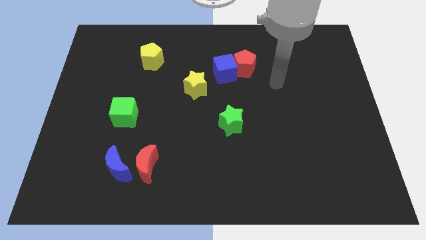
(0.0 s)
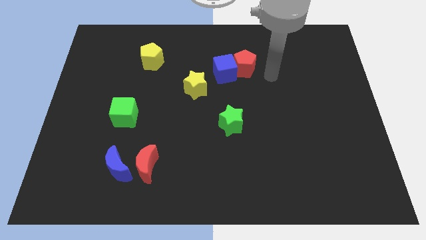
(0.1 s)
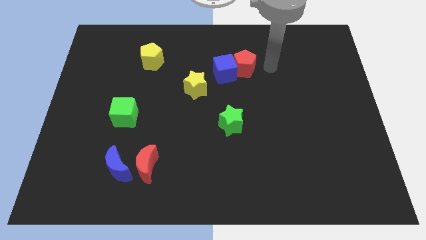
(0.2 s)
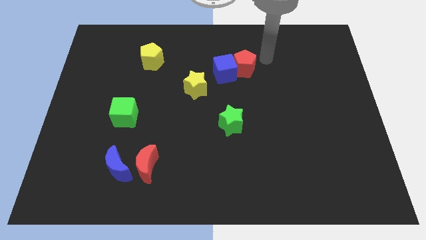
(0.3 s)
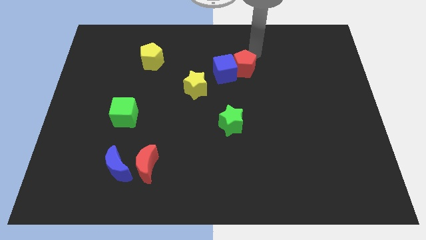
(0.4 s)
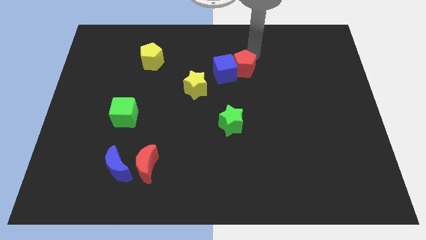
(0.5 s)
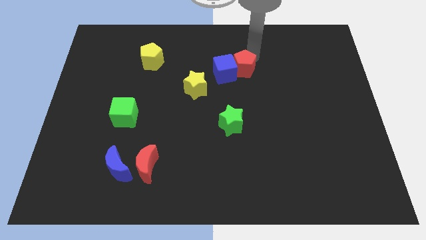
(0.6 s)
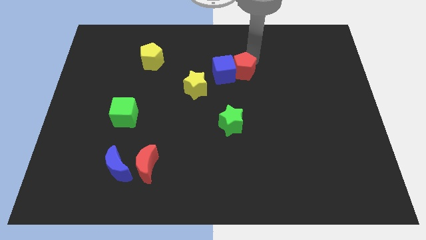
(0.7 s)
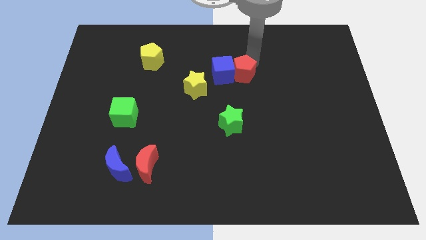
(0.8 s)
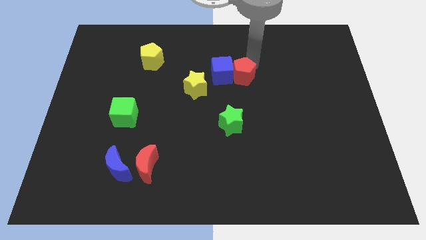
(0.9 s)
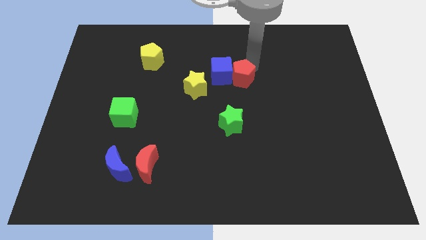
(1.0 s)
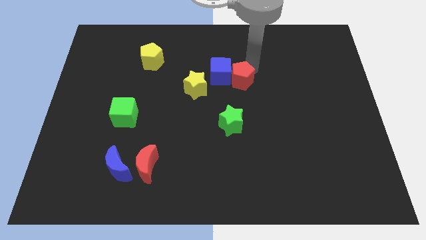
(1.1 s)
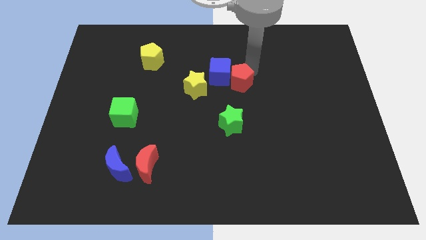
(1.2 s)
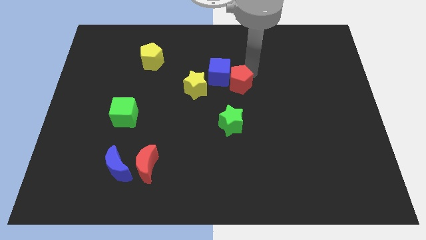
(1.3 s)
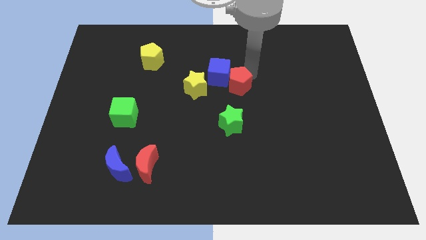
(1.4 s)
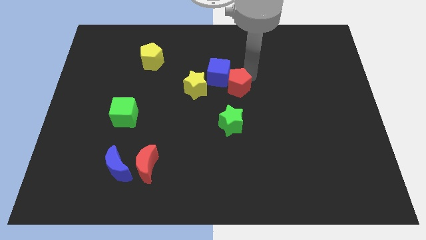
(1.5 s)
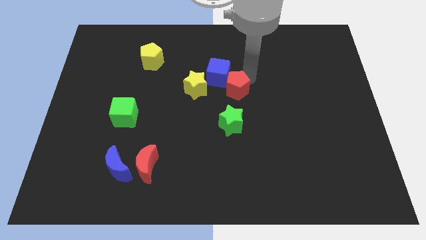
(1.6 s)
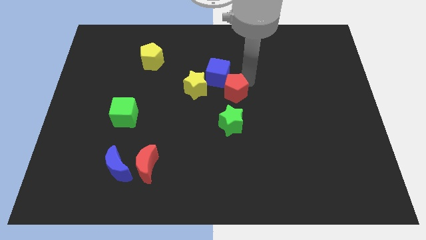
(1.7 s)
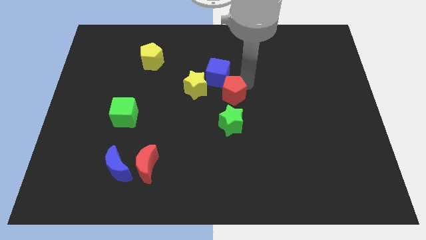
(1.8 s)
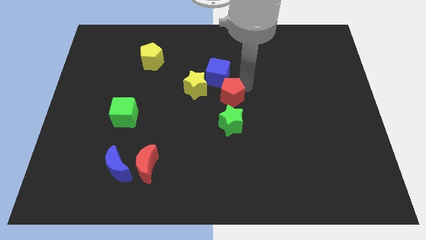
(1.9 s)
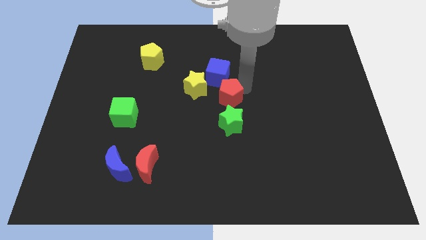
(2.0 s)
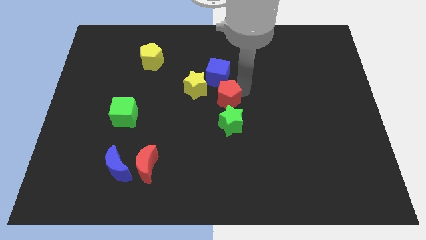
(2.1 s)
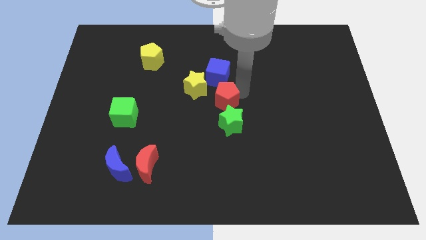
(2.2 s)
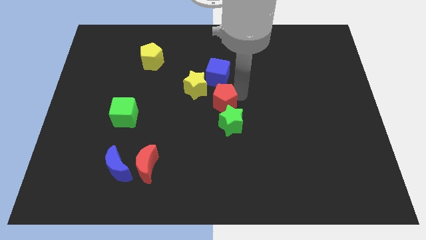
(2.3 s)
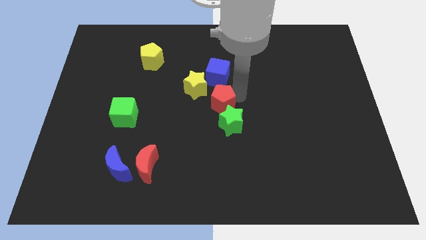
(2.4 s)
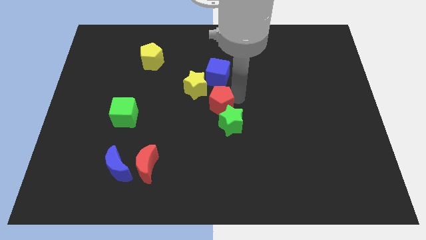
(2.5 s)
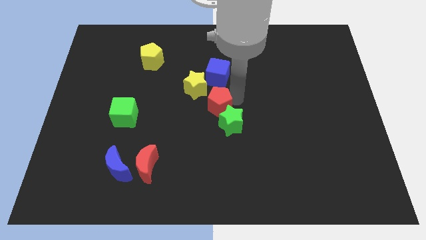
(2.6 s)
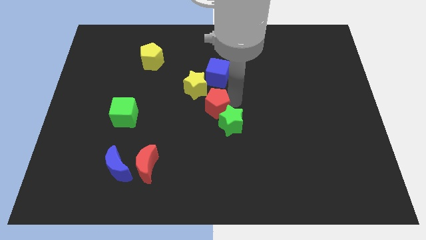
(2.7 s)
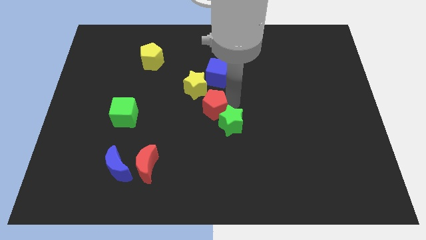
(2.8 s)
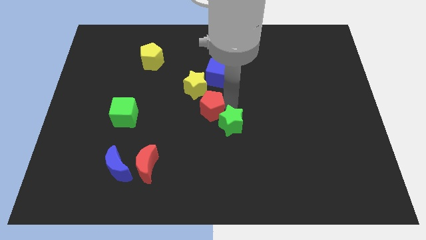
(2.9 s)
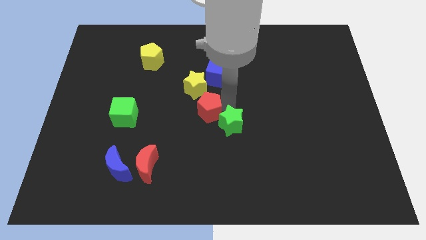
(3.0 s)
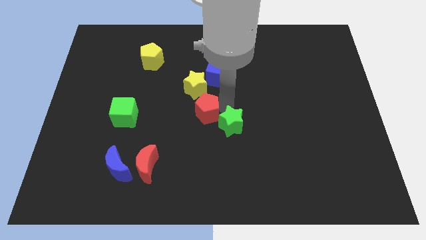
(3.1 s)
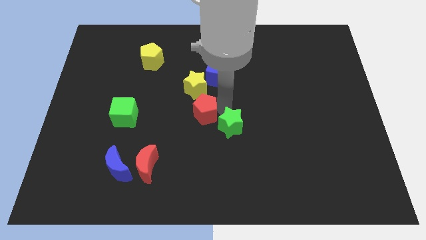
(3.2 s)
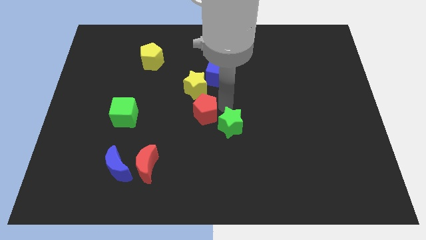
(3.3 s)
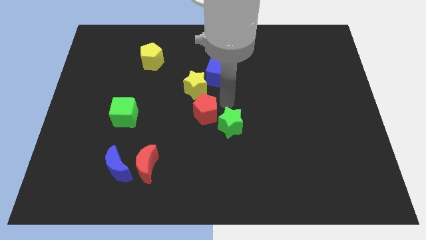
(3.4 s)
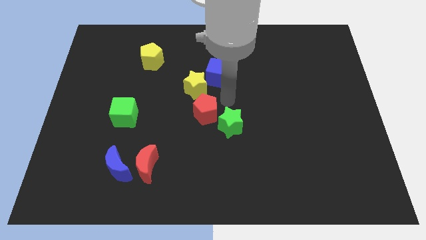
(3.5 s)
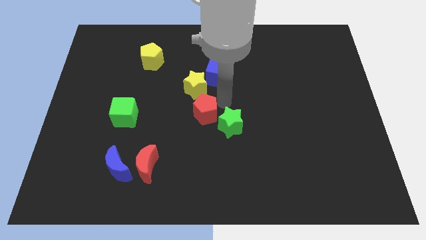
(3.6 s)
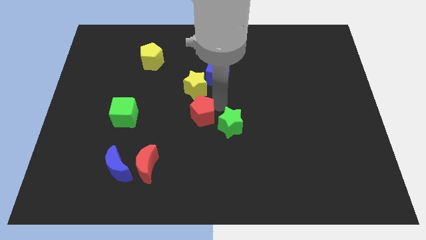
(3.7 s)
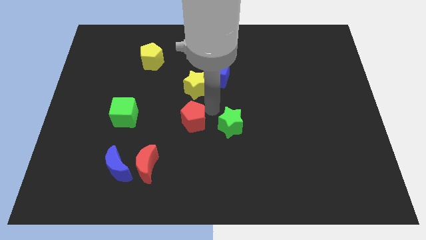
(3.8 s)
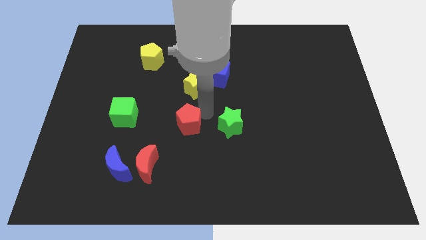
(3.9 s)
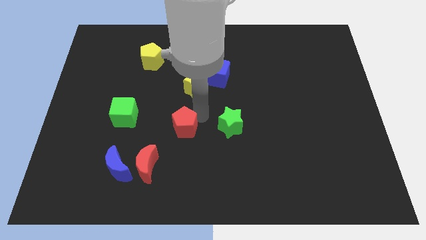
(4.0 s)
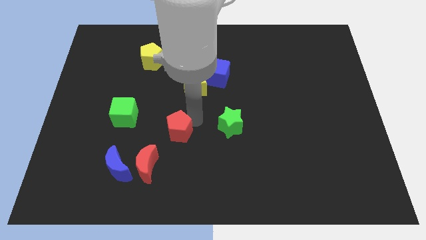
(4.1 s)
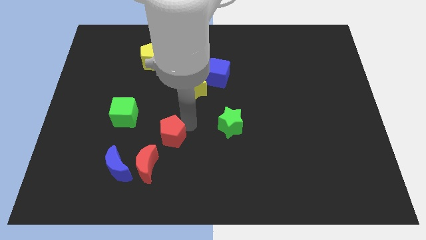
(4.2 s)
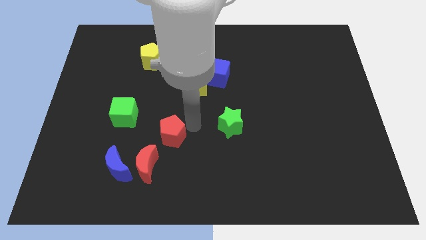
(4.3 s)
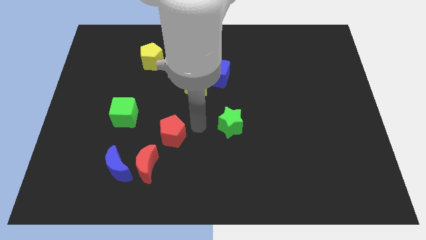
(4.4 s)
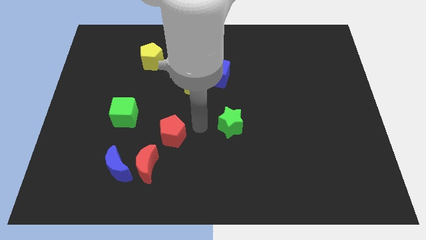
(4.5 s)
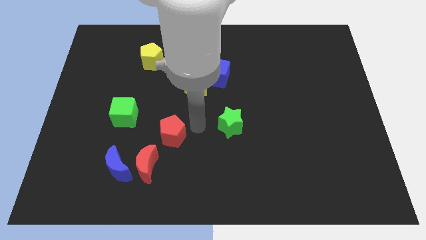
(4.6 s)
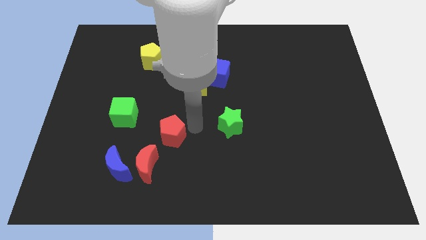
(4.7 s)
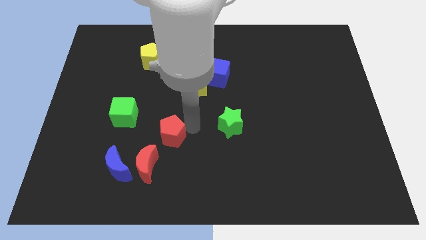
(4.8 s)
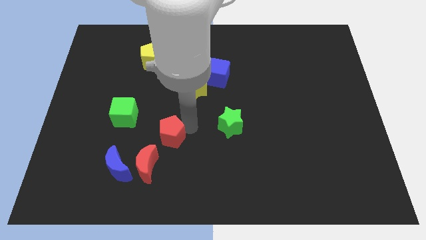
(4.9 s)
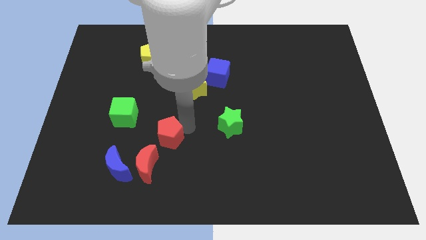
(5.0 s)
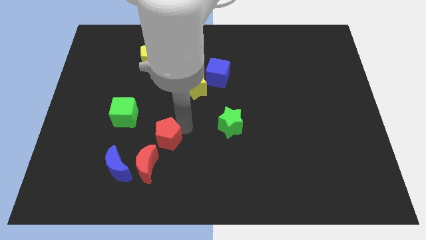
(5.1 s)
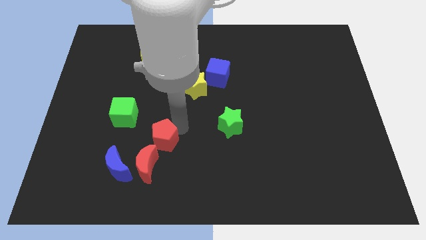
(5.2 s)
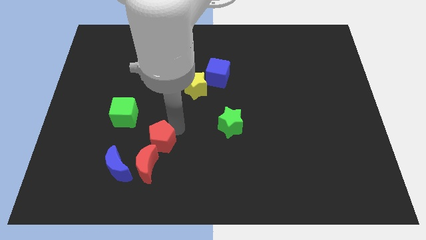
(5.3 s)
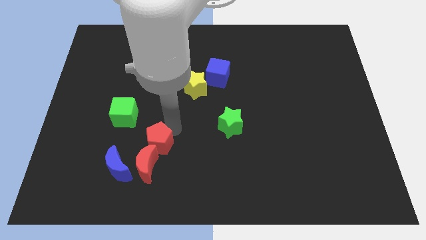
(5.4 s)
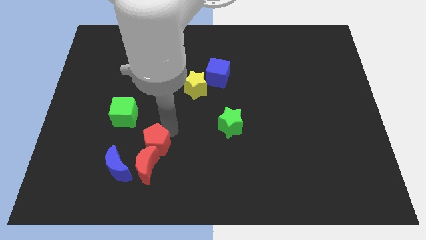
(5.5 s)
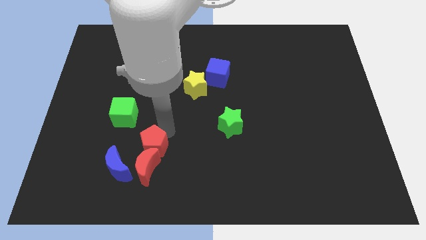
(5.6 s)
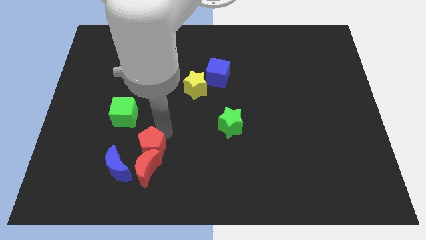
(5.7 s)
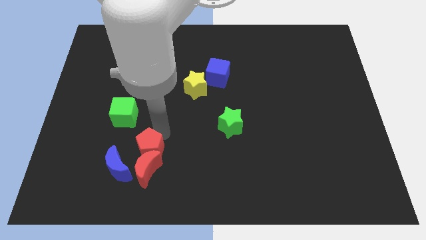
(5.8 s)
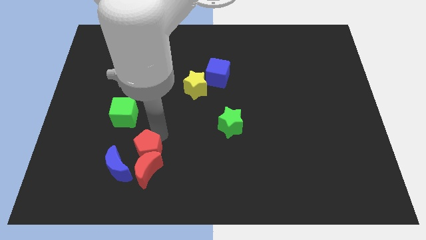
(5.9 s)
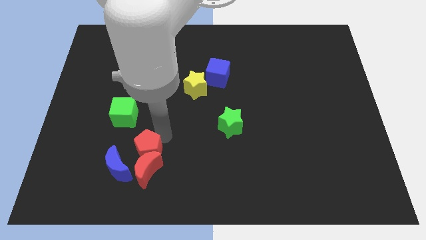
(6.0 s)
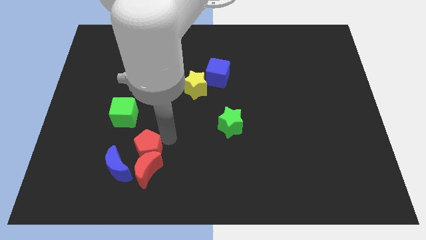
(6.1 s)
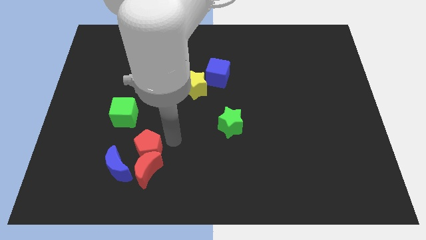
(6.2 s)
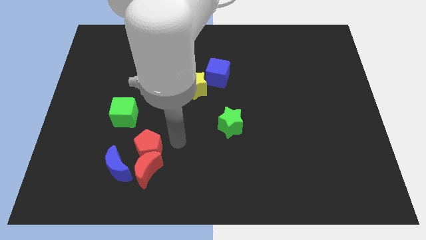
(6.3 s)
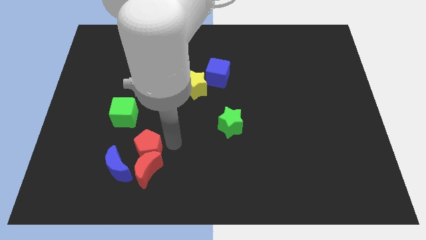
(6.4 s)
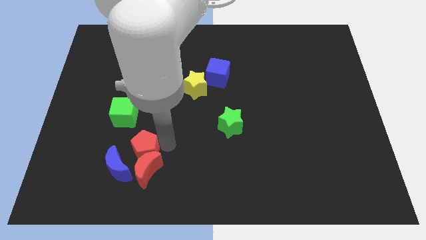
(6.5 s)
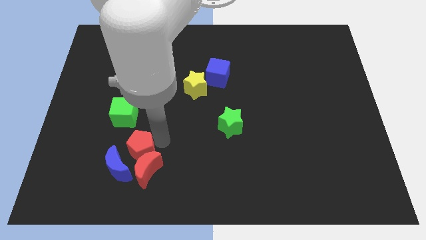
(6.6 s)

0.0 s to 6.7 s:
push the red pentagon to the blue moon

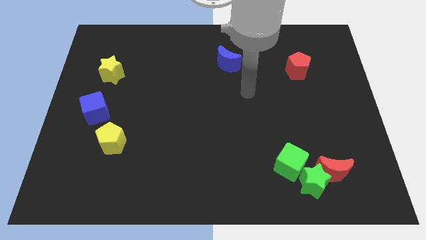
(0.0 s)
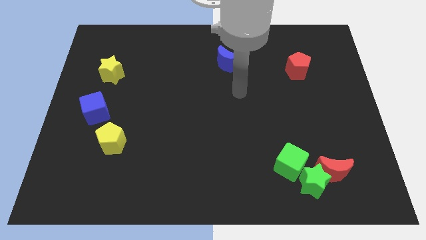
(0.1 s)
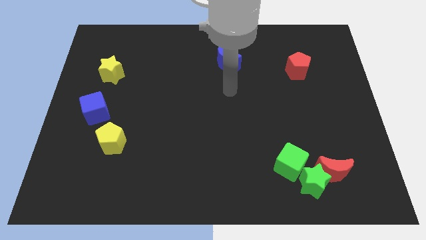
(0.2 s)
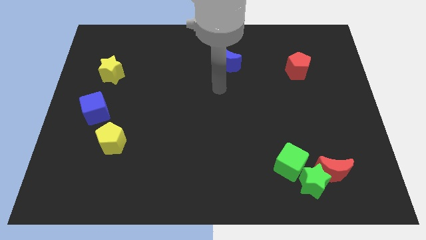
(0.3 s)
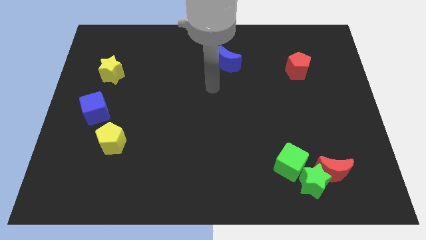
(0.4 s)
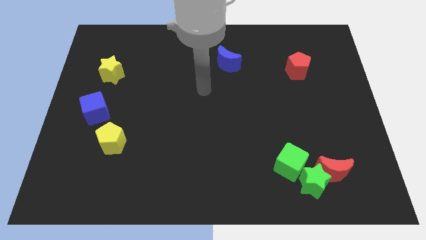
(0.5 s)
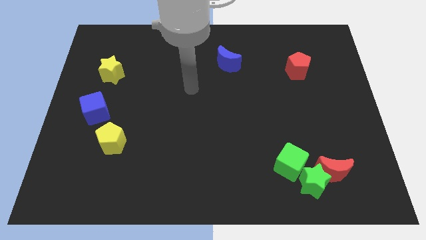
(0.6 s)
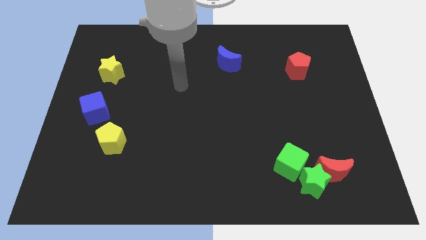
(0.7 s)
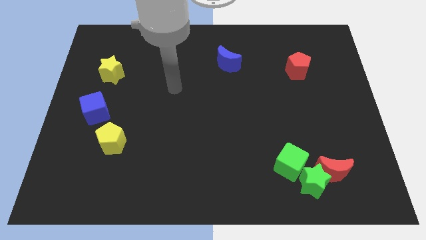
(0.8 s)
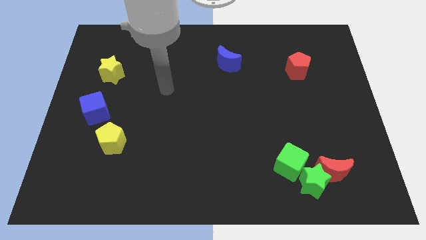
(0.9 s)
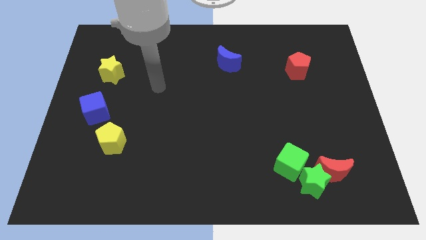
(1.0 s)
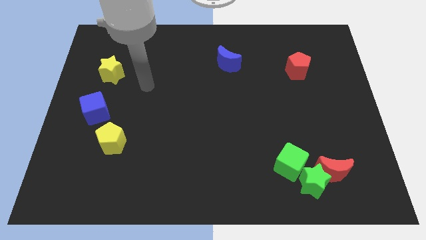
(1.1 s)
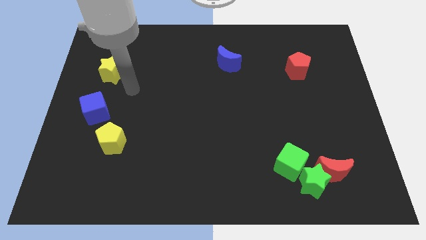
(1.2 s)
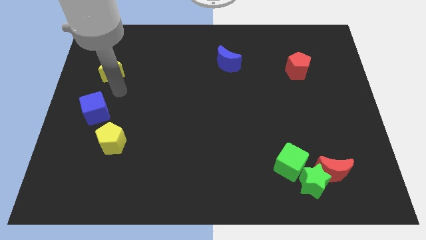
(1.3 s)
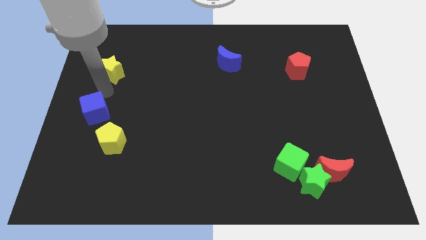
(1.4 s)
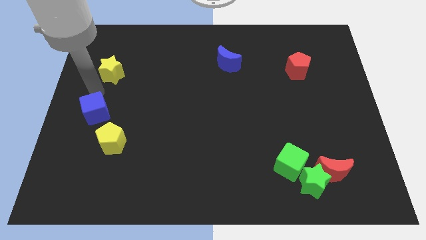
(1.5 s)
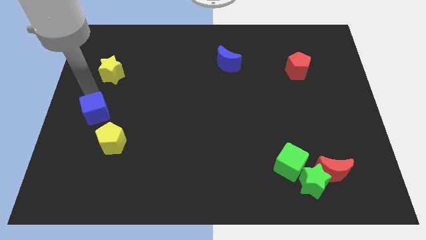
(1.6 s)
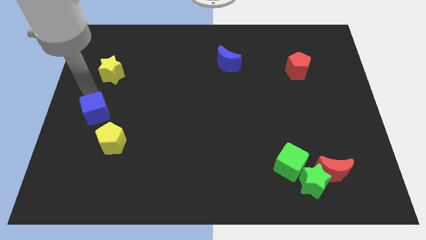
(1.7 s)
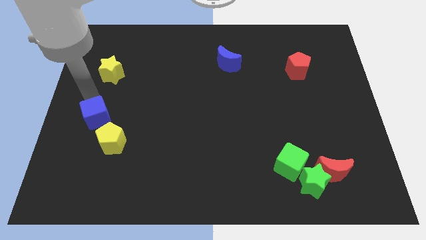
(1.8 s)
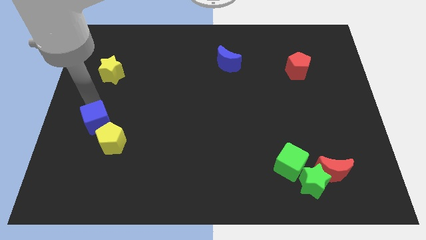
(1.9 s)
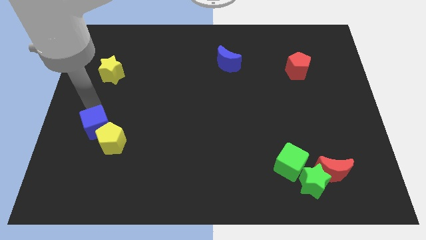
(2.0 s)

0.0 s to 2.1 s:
slide the blue cube towards the yellow pentagon
